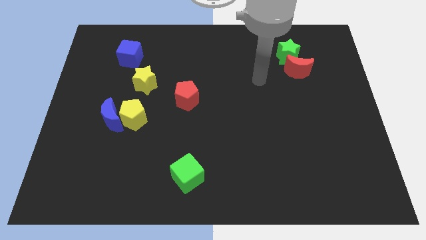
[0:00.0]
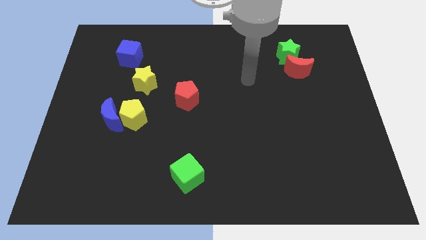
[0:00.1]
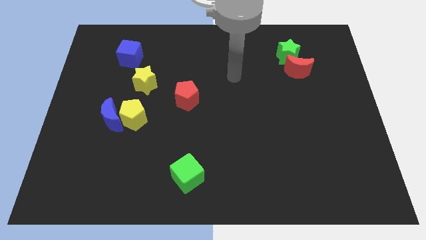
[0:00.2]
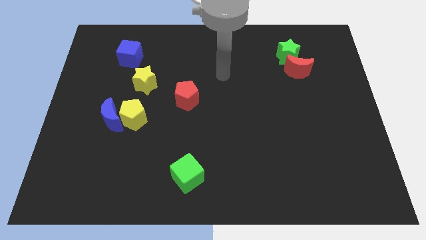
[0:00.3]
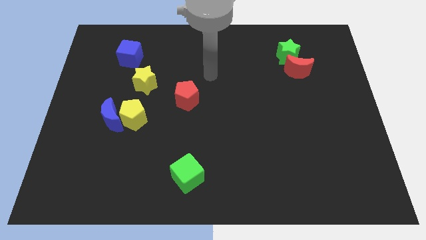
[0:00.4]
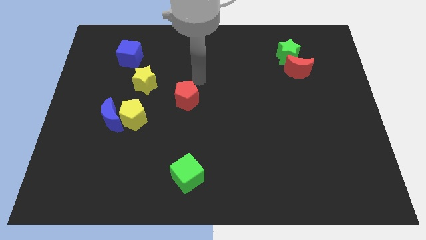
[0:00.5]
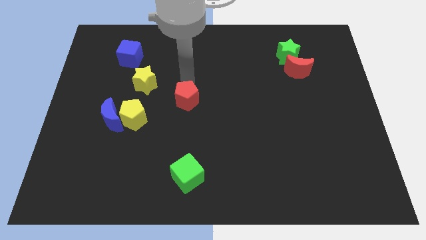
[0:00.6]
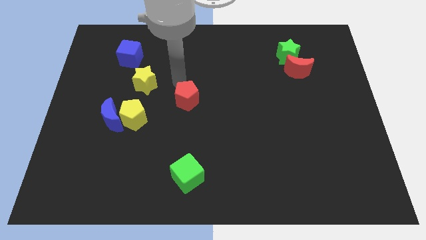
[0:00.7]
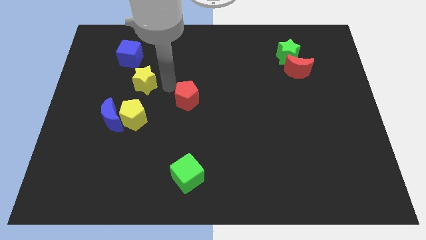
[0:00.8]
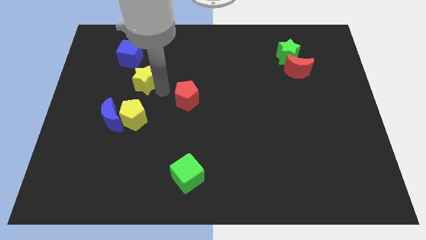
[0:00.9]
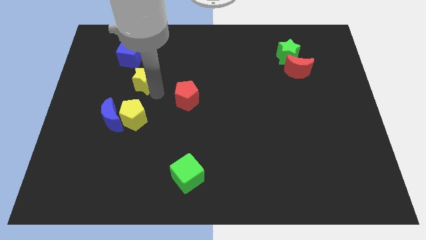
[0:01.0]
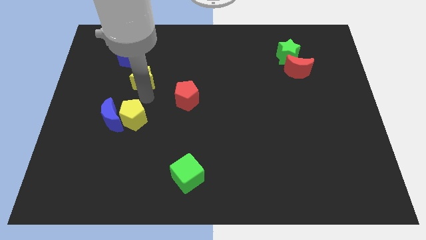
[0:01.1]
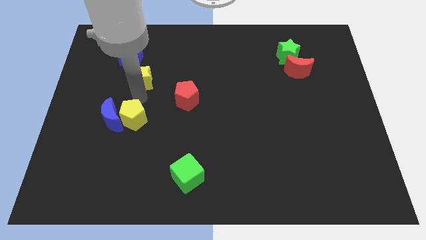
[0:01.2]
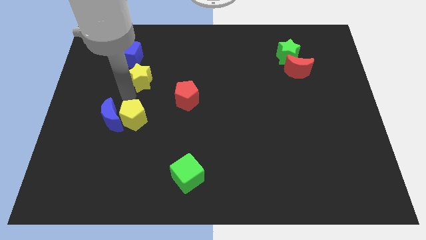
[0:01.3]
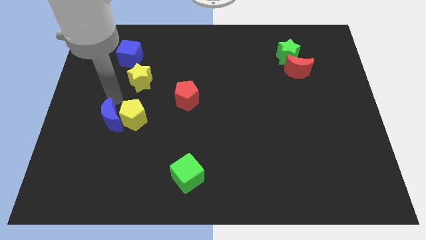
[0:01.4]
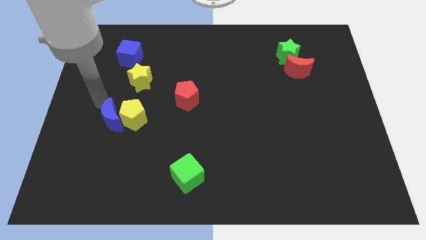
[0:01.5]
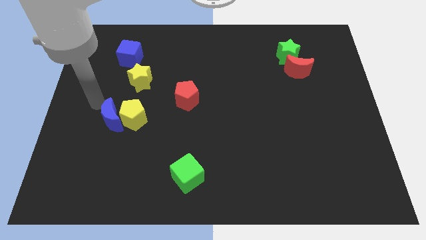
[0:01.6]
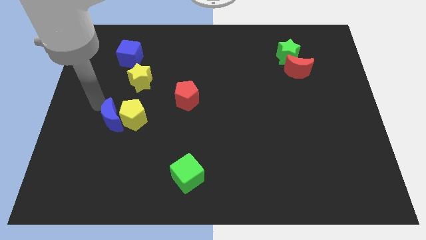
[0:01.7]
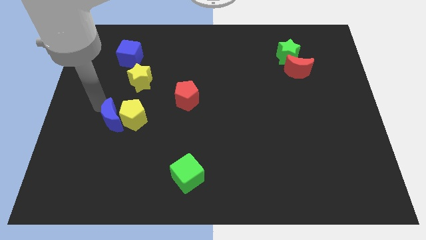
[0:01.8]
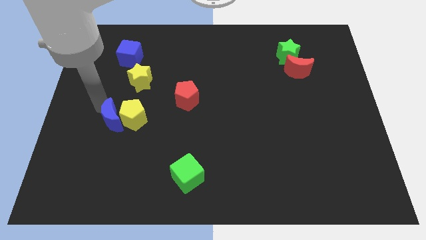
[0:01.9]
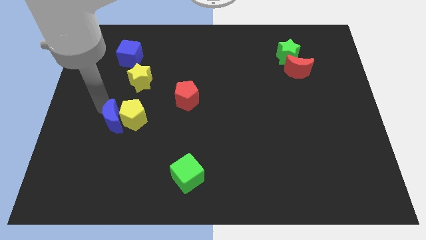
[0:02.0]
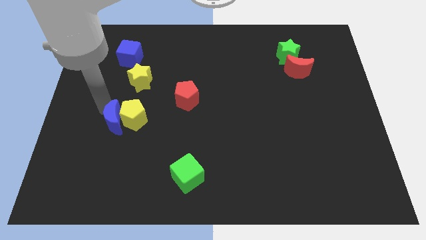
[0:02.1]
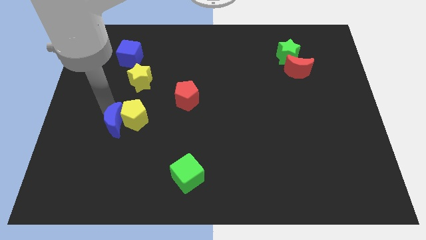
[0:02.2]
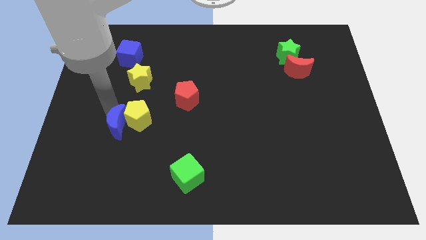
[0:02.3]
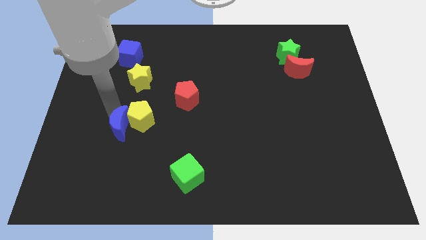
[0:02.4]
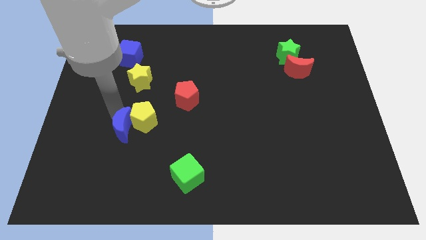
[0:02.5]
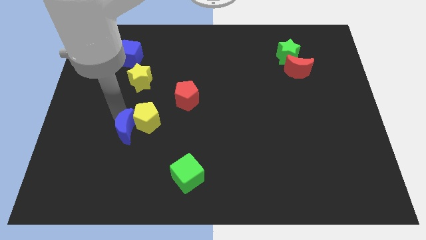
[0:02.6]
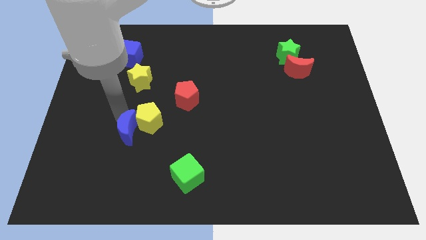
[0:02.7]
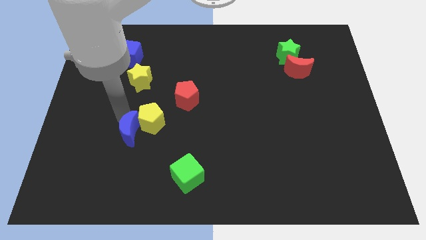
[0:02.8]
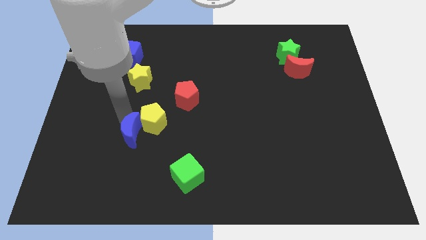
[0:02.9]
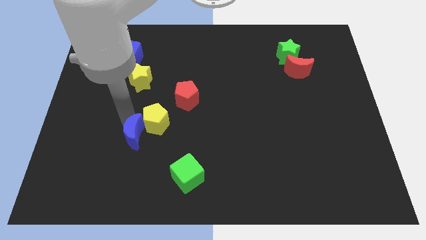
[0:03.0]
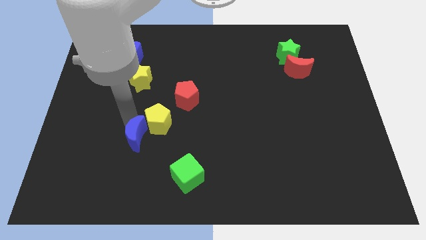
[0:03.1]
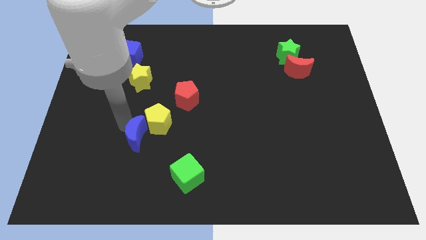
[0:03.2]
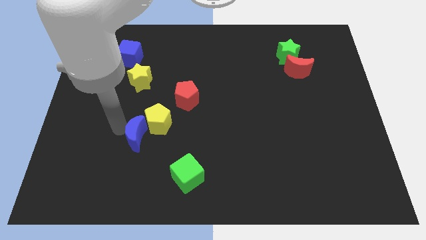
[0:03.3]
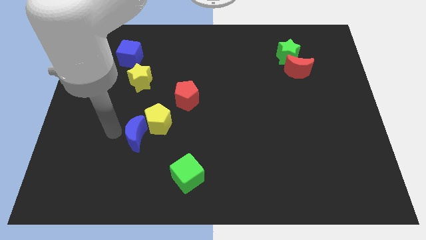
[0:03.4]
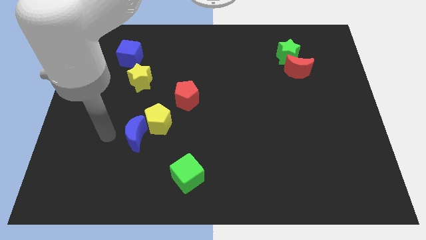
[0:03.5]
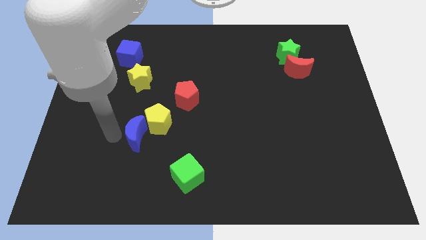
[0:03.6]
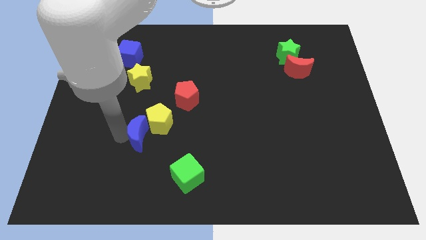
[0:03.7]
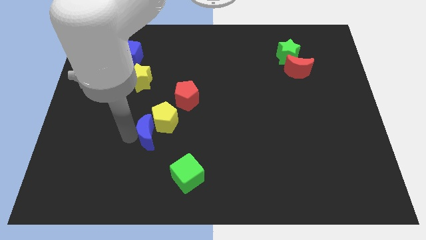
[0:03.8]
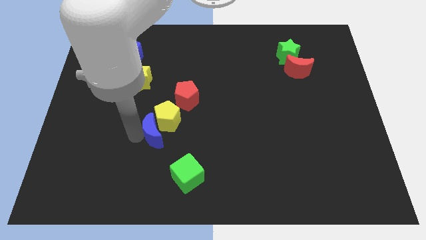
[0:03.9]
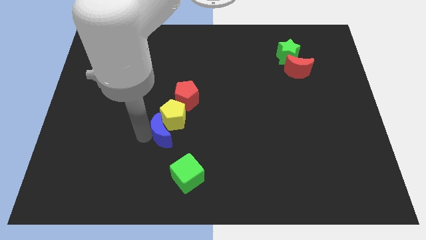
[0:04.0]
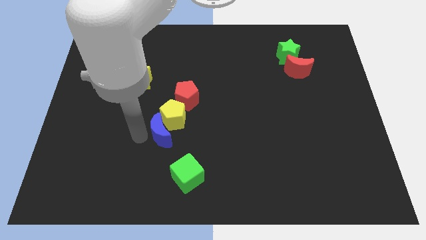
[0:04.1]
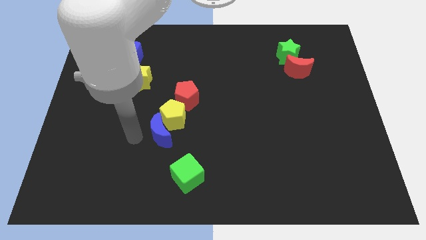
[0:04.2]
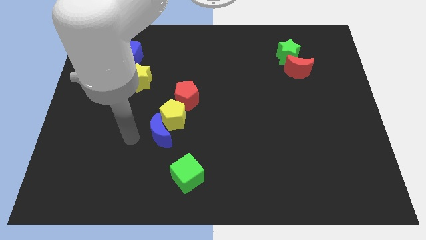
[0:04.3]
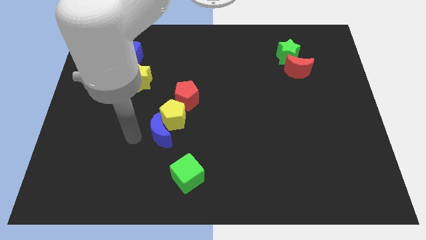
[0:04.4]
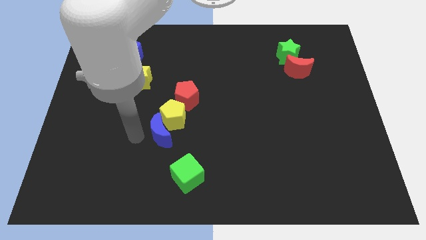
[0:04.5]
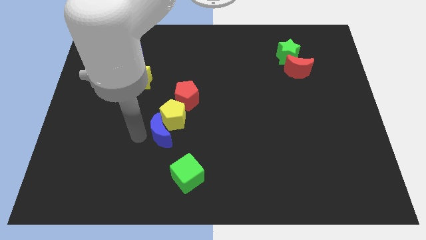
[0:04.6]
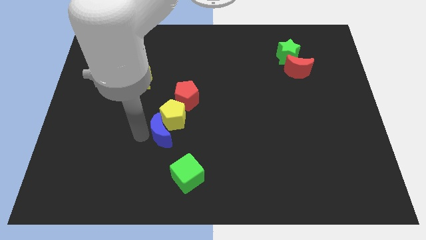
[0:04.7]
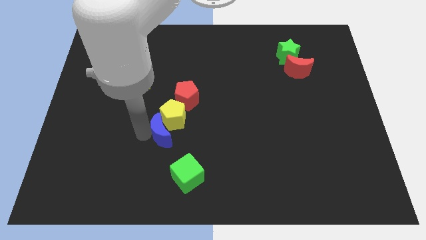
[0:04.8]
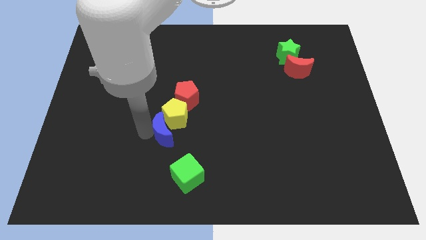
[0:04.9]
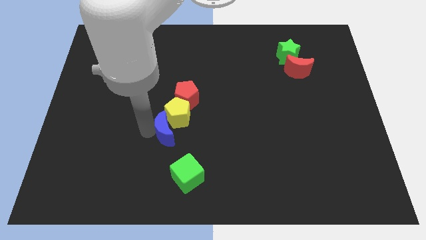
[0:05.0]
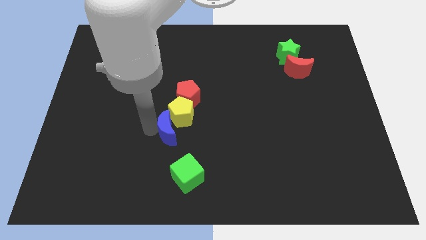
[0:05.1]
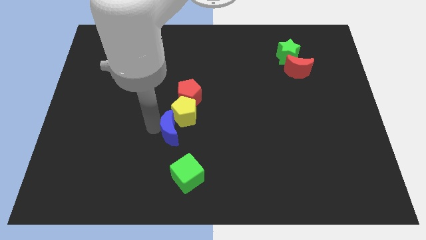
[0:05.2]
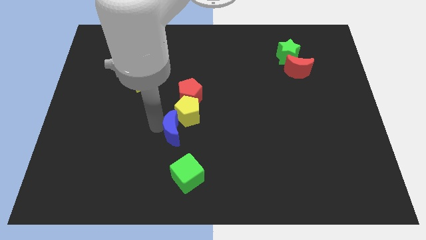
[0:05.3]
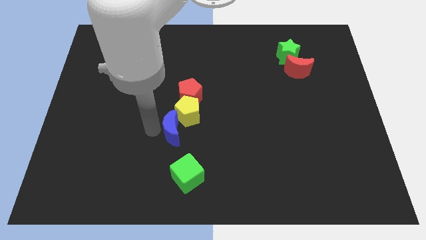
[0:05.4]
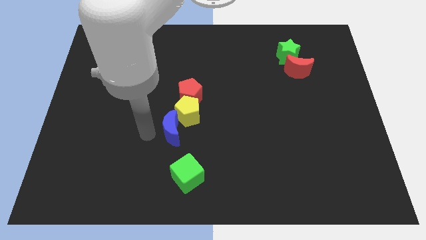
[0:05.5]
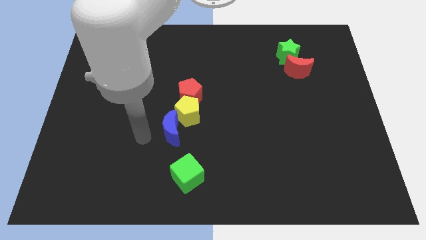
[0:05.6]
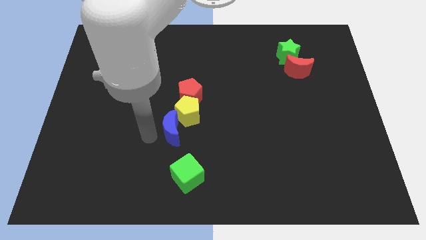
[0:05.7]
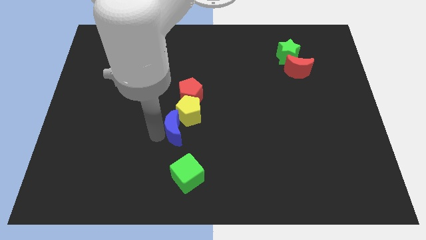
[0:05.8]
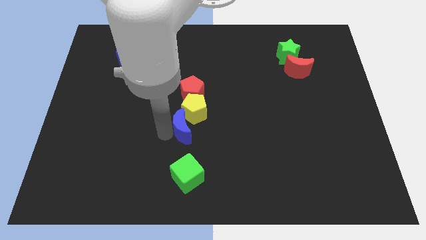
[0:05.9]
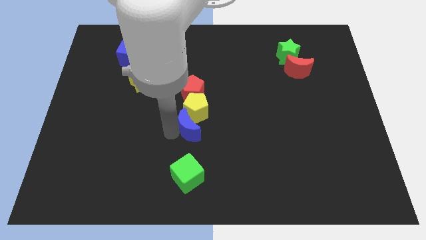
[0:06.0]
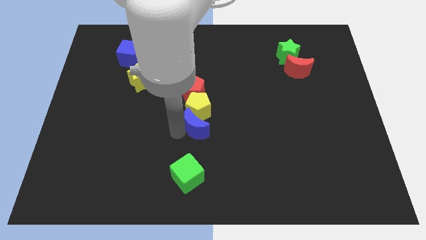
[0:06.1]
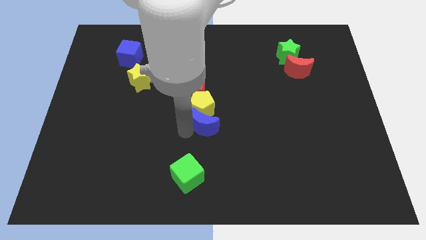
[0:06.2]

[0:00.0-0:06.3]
slide the blue moon right

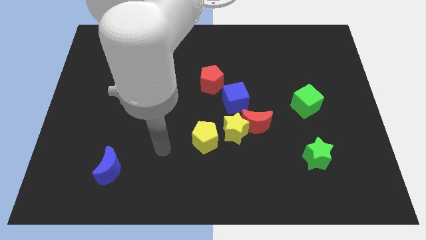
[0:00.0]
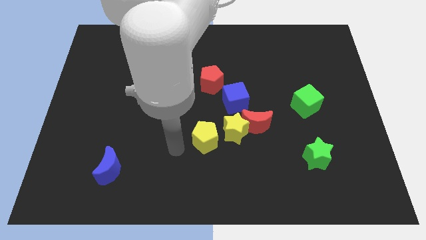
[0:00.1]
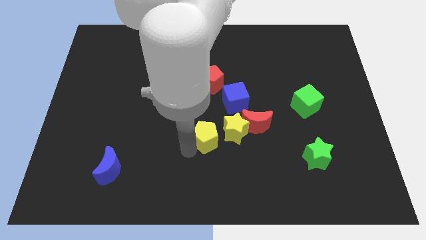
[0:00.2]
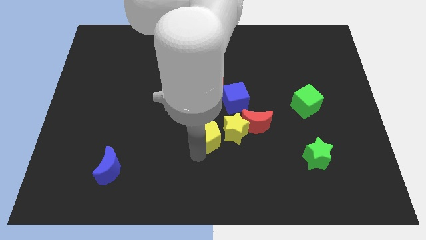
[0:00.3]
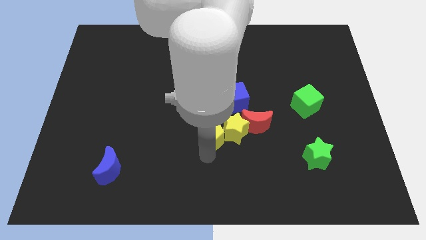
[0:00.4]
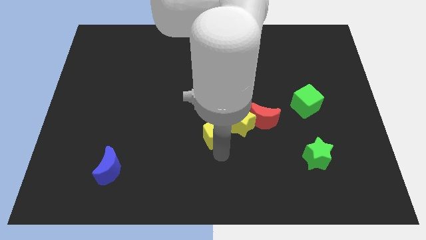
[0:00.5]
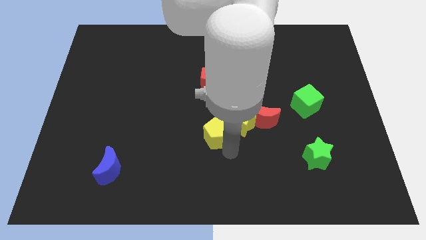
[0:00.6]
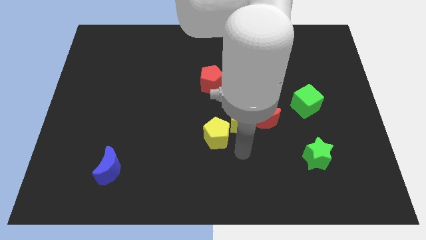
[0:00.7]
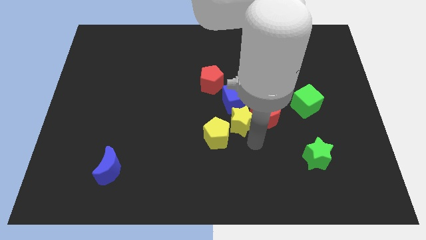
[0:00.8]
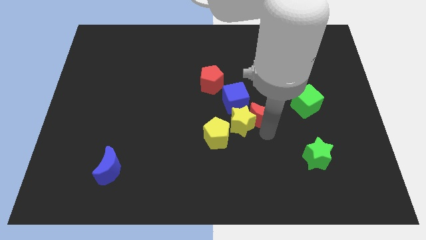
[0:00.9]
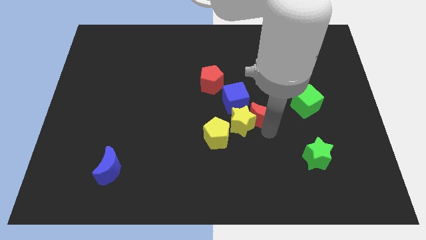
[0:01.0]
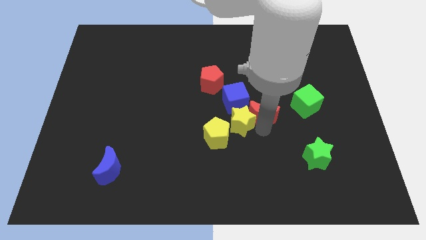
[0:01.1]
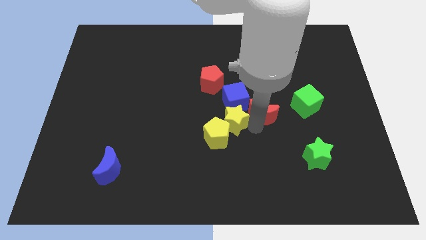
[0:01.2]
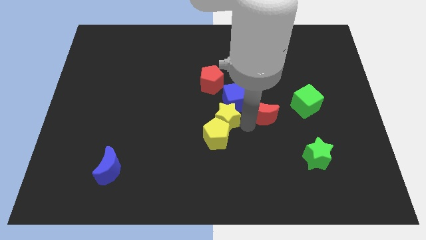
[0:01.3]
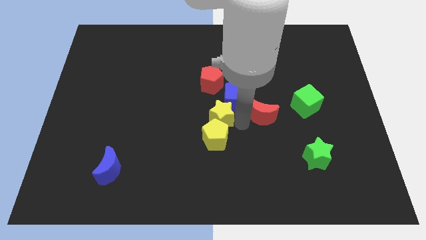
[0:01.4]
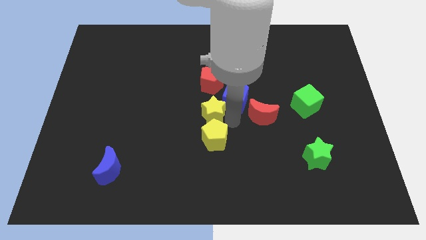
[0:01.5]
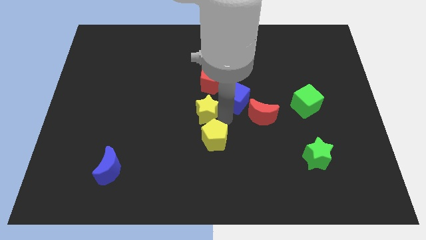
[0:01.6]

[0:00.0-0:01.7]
slightly move the yellow star upwards and then to the left
